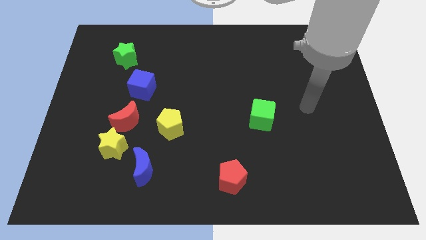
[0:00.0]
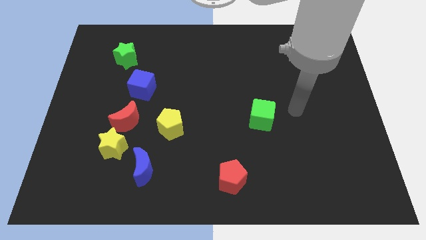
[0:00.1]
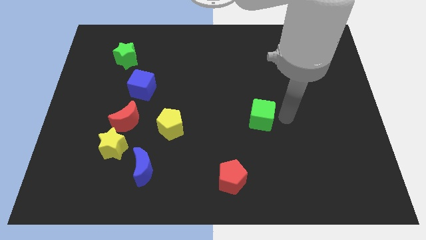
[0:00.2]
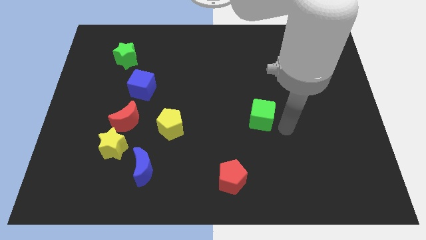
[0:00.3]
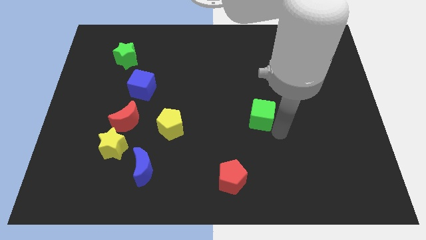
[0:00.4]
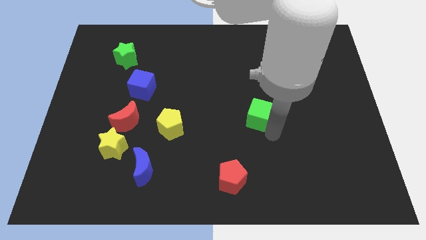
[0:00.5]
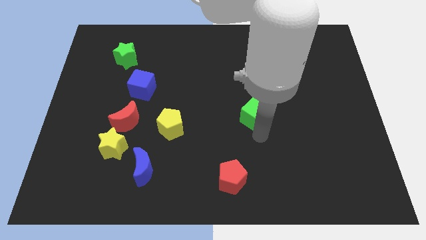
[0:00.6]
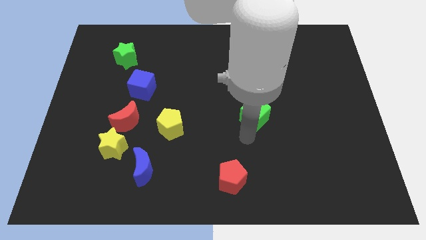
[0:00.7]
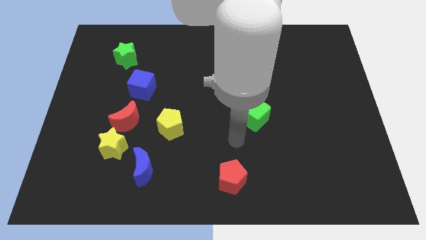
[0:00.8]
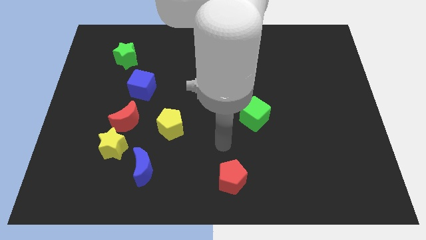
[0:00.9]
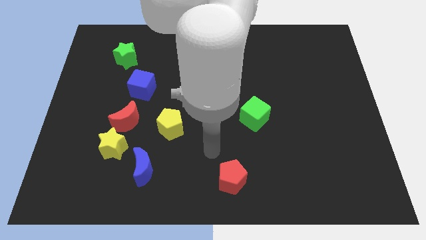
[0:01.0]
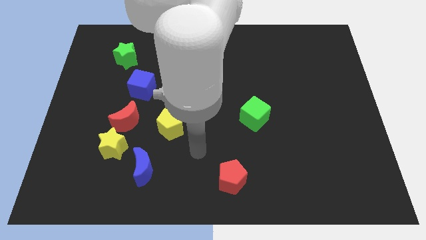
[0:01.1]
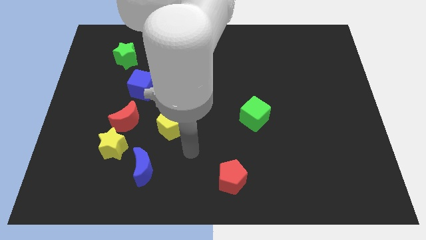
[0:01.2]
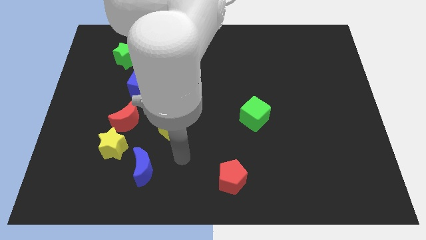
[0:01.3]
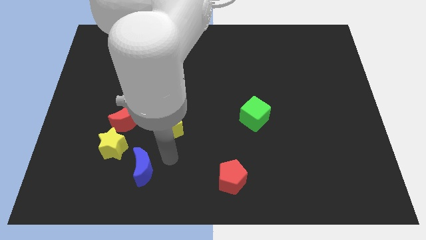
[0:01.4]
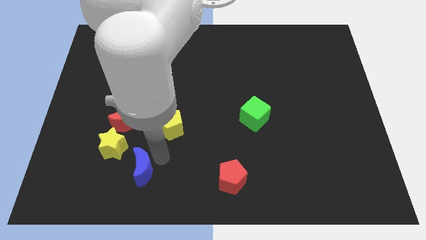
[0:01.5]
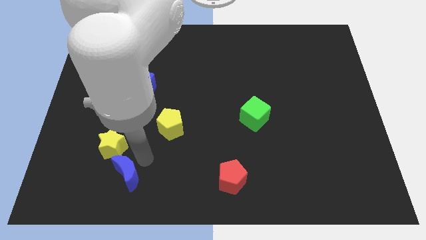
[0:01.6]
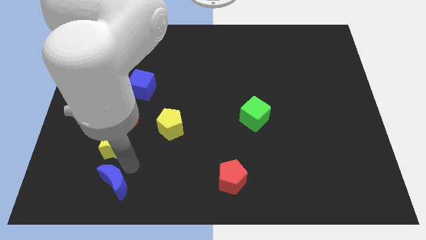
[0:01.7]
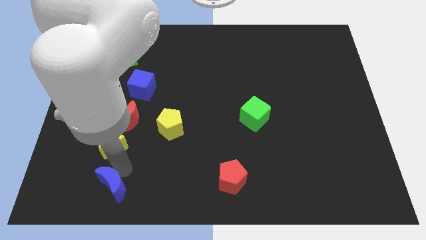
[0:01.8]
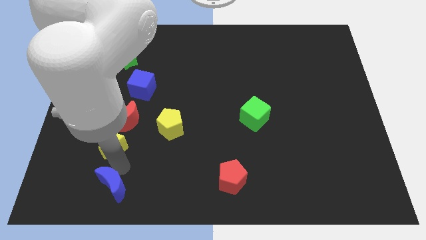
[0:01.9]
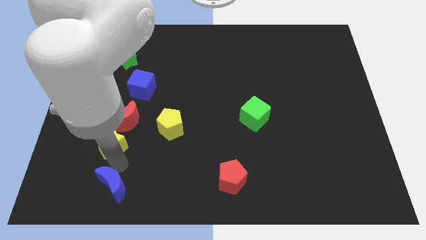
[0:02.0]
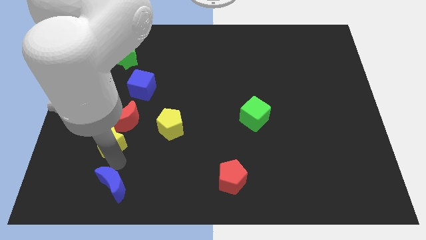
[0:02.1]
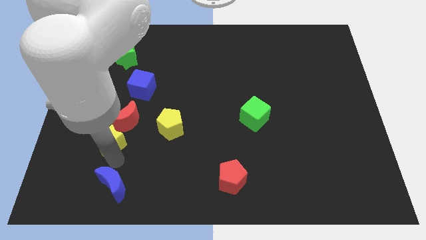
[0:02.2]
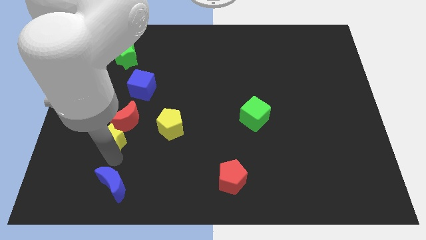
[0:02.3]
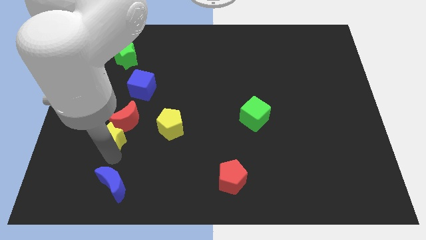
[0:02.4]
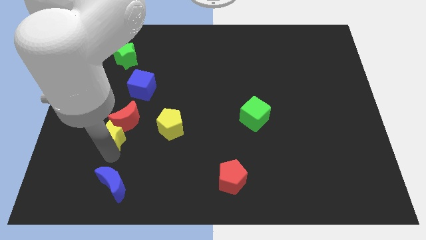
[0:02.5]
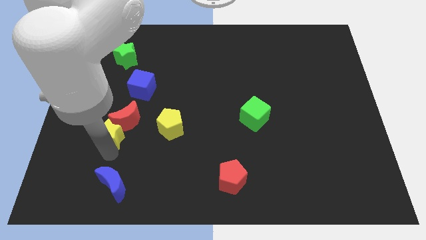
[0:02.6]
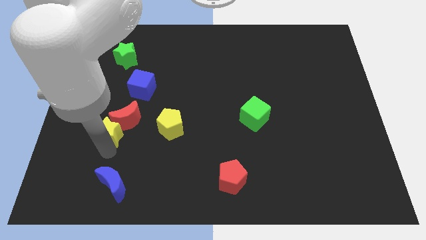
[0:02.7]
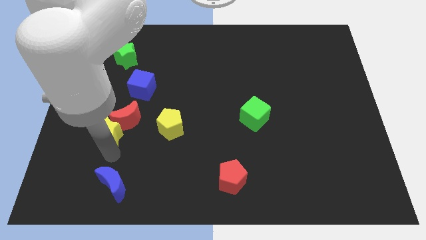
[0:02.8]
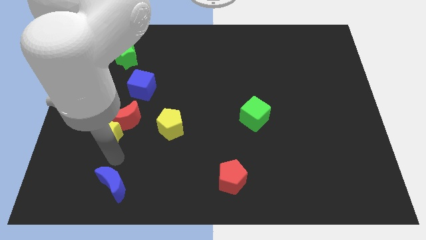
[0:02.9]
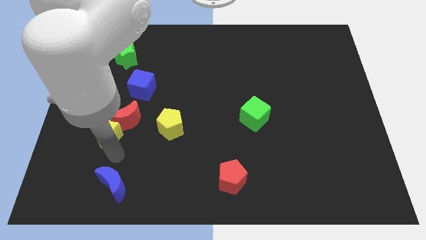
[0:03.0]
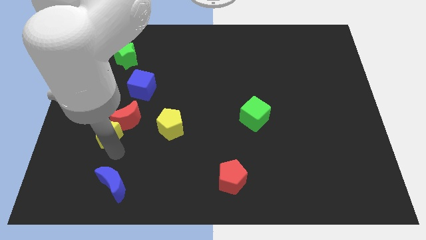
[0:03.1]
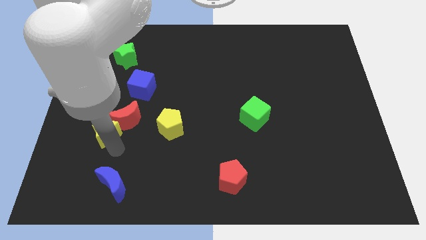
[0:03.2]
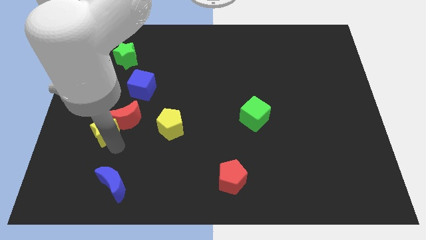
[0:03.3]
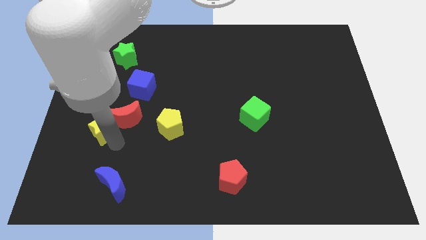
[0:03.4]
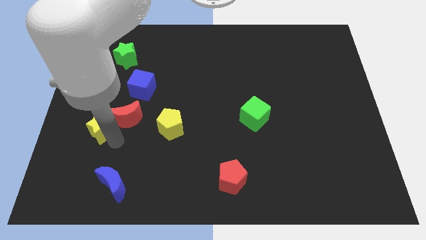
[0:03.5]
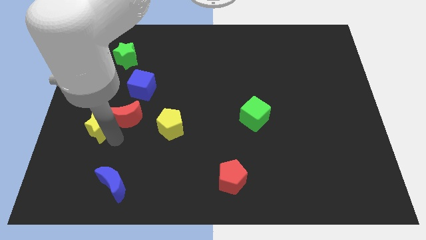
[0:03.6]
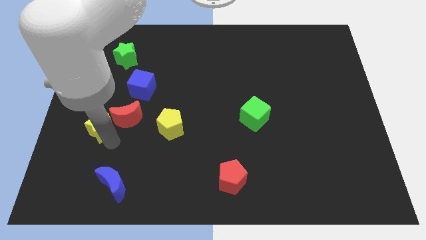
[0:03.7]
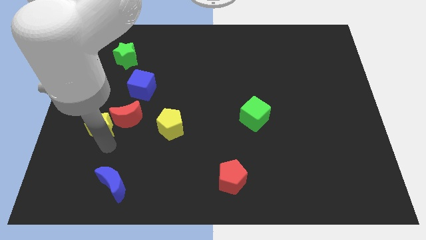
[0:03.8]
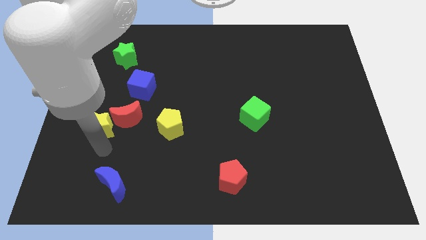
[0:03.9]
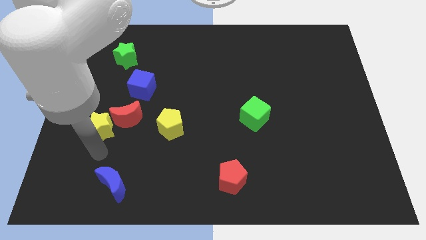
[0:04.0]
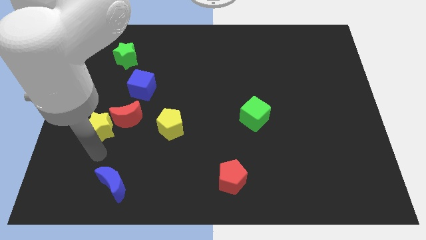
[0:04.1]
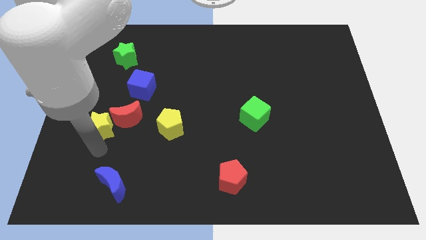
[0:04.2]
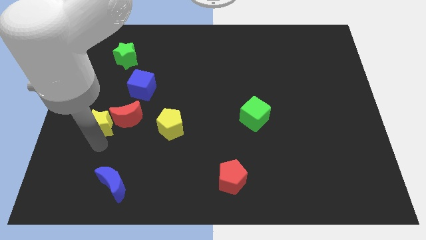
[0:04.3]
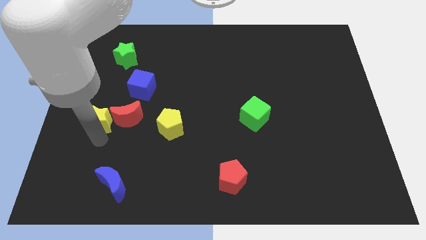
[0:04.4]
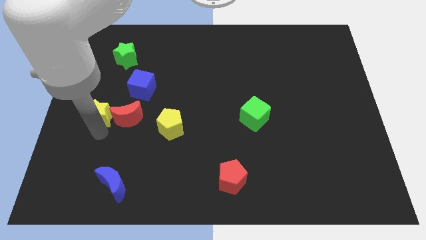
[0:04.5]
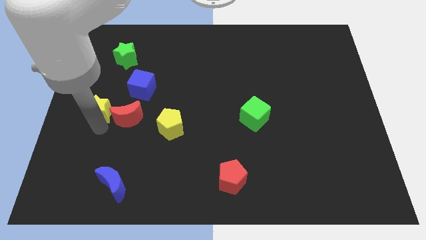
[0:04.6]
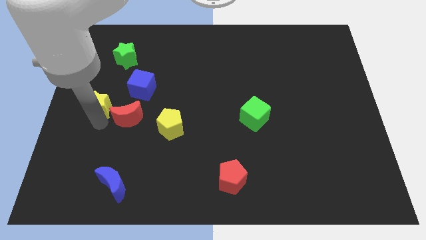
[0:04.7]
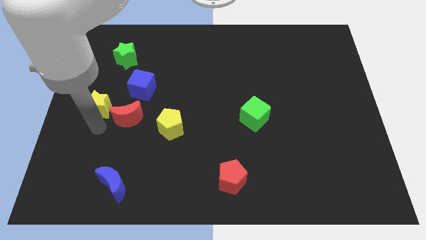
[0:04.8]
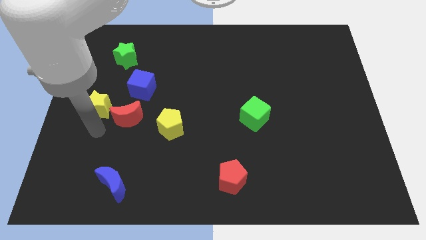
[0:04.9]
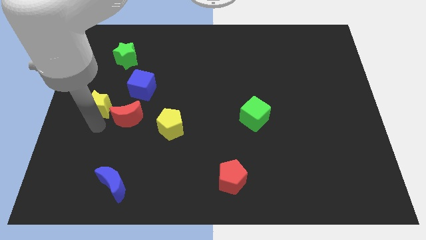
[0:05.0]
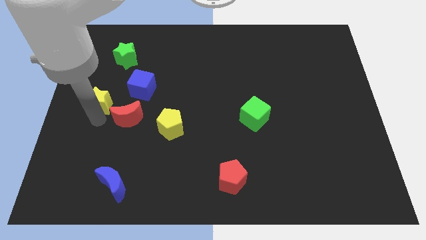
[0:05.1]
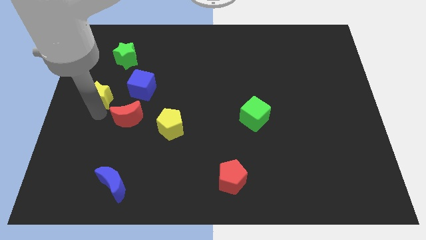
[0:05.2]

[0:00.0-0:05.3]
put the yellow star to the left of the blue cube

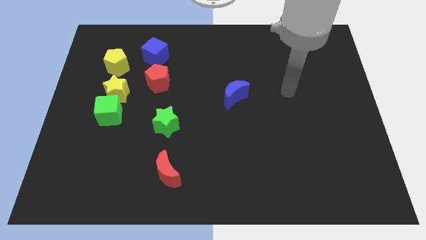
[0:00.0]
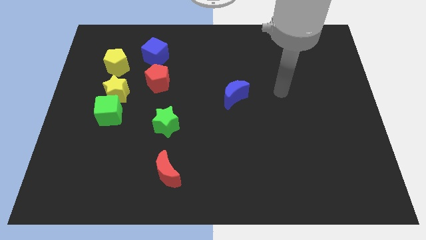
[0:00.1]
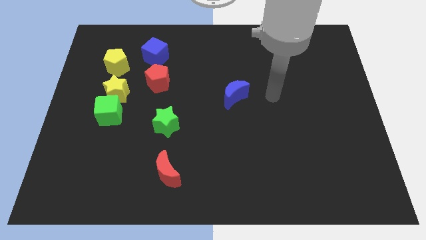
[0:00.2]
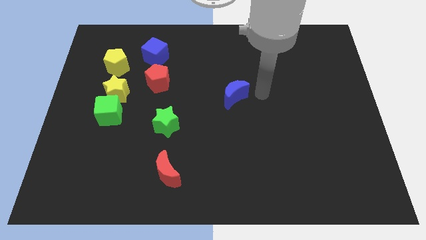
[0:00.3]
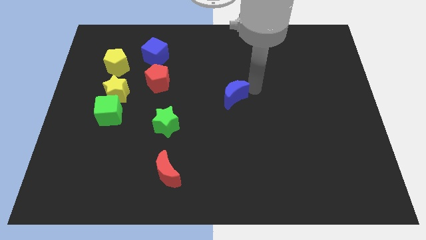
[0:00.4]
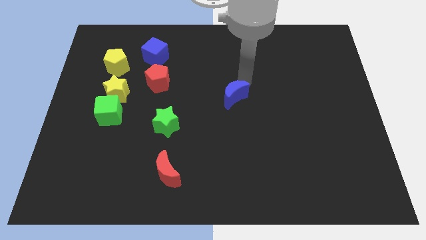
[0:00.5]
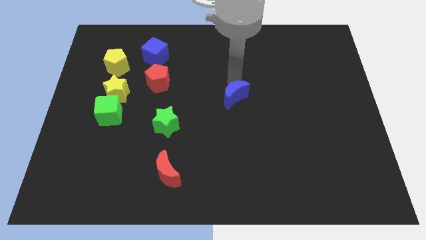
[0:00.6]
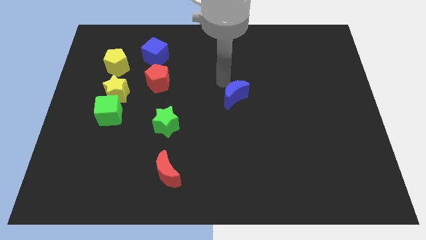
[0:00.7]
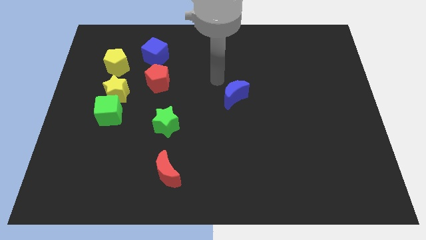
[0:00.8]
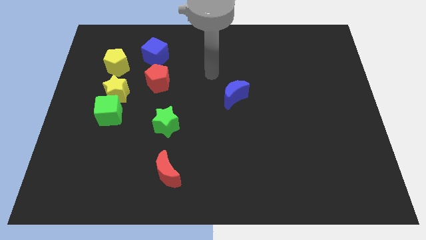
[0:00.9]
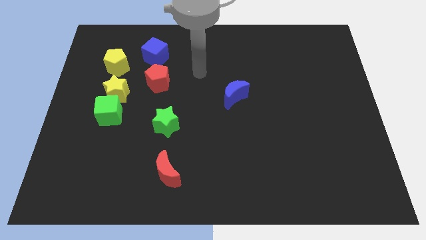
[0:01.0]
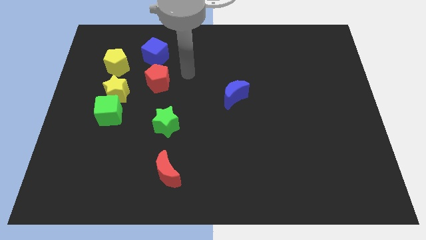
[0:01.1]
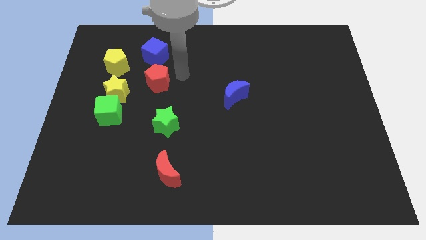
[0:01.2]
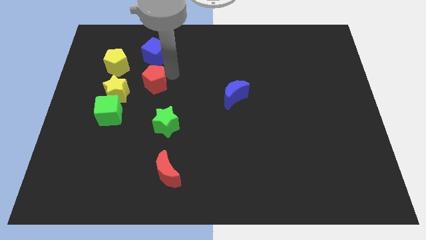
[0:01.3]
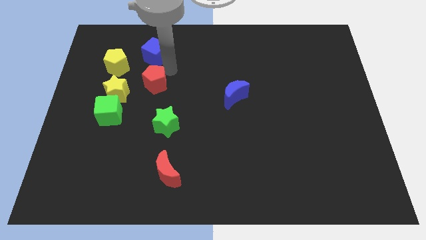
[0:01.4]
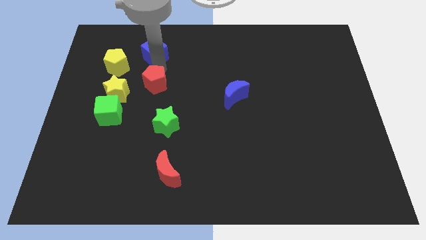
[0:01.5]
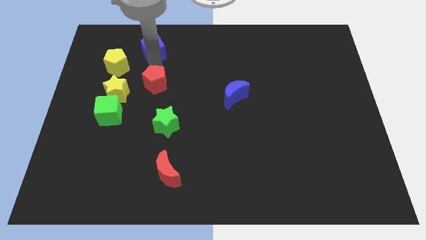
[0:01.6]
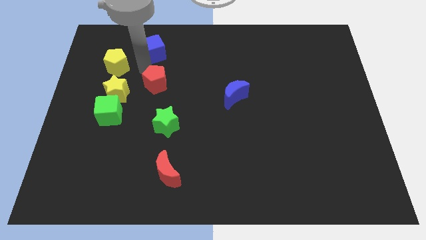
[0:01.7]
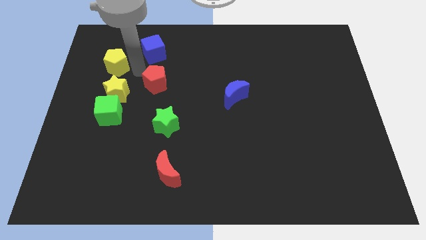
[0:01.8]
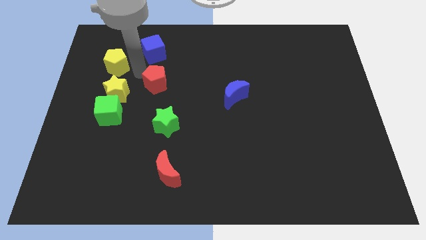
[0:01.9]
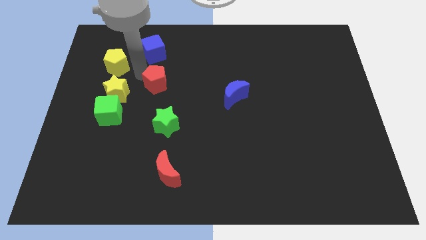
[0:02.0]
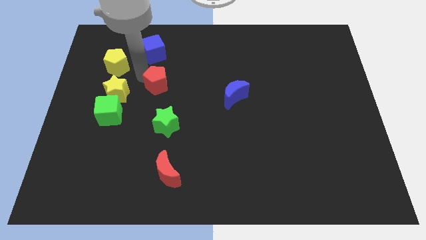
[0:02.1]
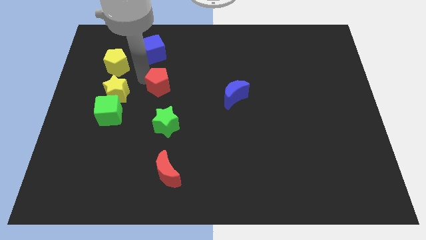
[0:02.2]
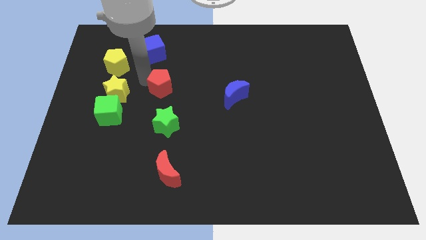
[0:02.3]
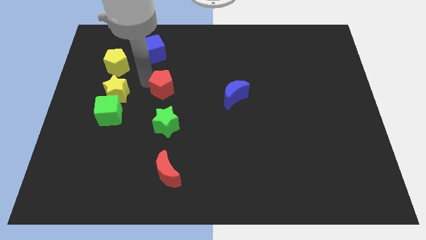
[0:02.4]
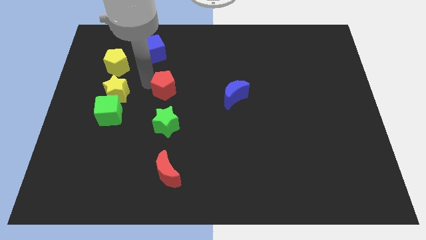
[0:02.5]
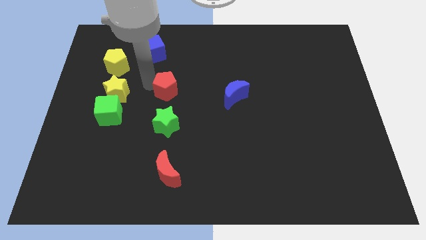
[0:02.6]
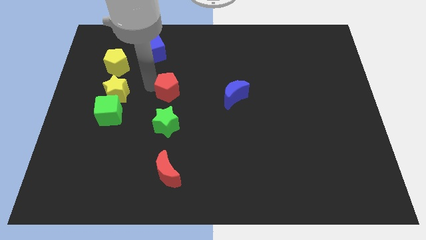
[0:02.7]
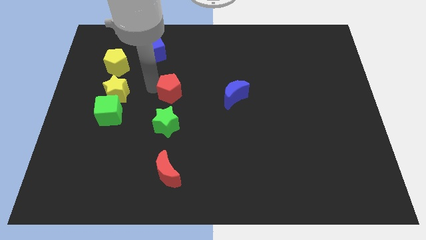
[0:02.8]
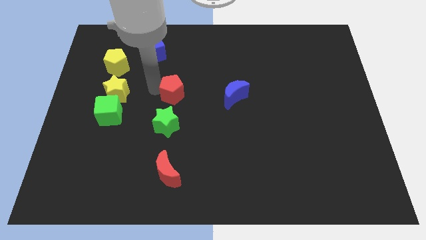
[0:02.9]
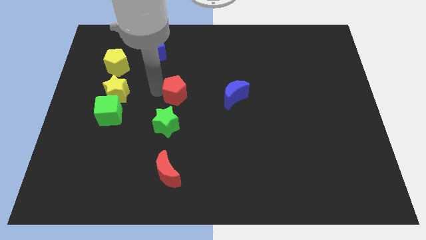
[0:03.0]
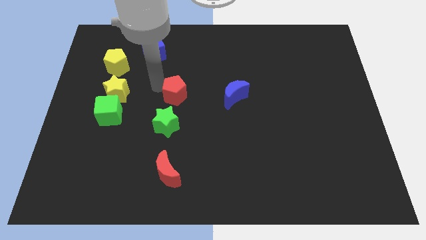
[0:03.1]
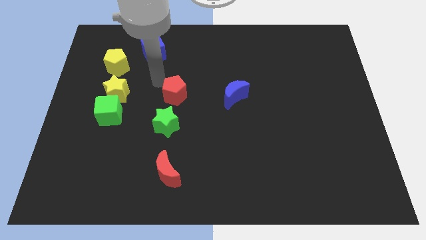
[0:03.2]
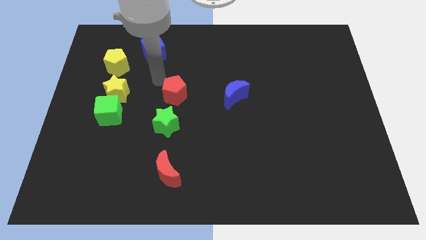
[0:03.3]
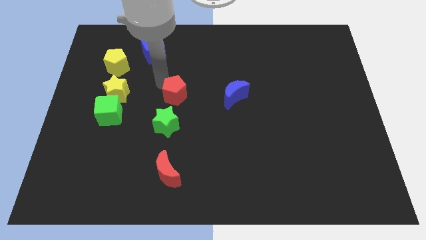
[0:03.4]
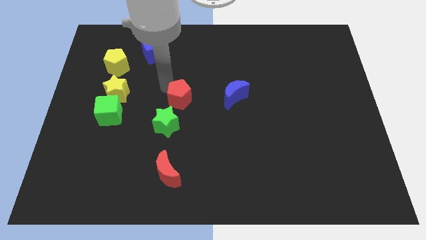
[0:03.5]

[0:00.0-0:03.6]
slide the red pentagon to the top right side of the green star
